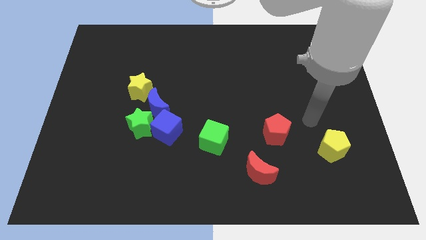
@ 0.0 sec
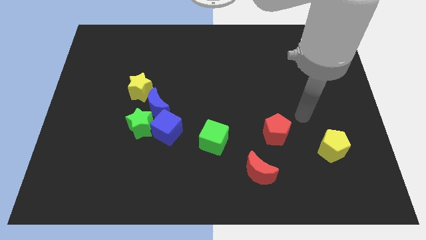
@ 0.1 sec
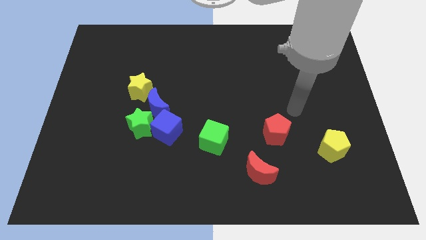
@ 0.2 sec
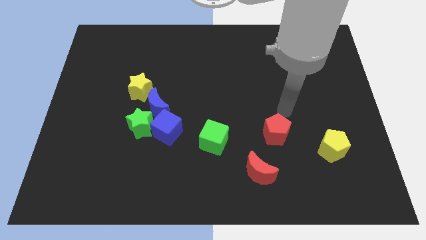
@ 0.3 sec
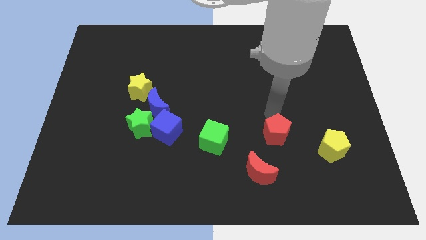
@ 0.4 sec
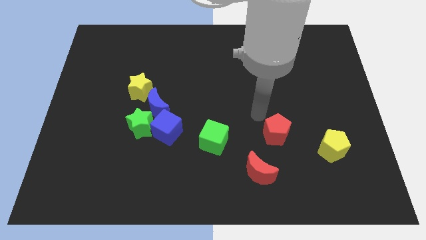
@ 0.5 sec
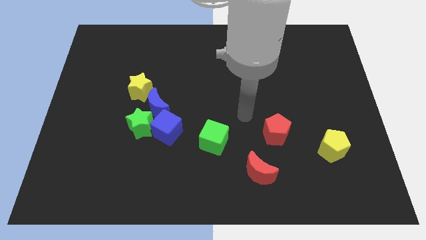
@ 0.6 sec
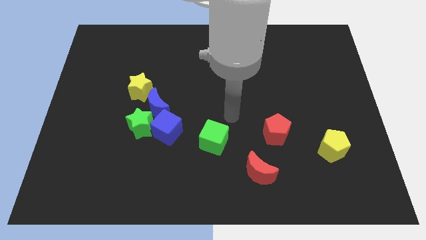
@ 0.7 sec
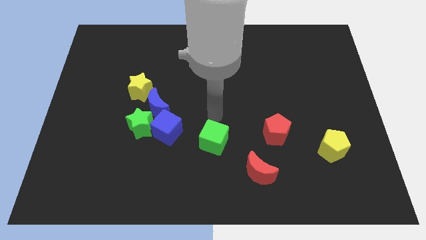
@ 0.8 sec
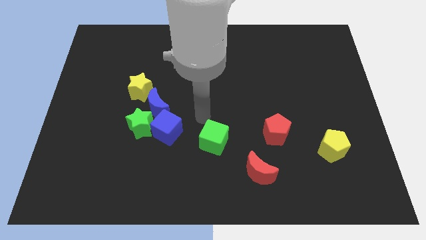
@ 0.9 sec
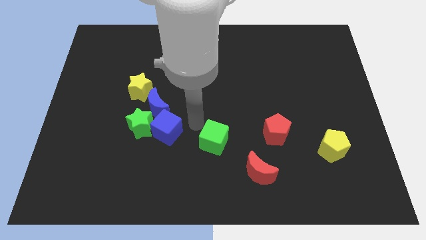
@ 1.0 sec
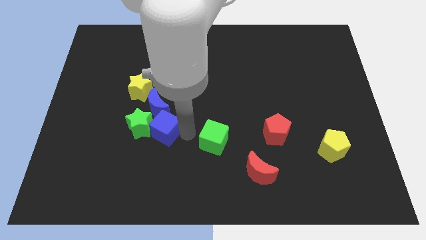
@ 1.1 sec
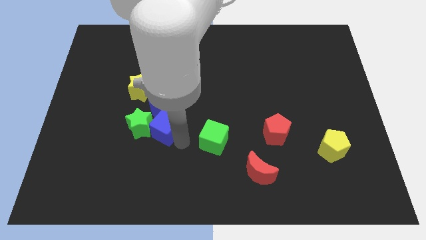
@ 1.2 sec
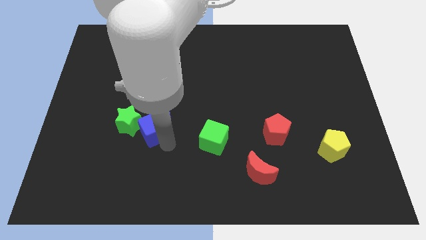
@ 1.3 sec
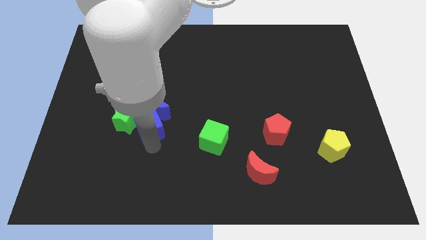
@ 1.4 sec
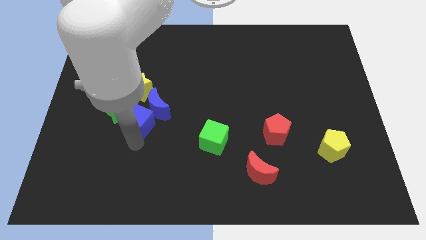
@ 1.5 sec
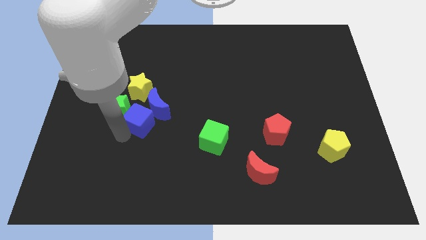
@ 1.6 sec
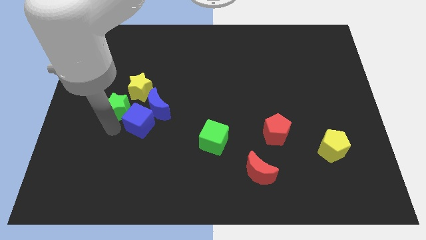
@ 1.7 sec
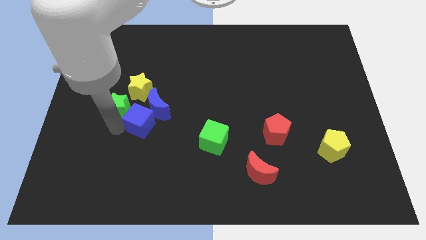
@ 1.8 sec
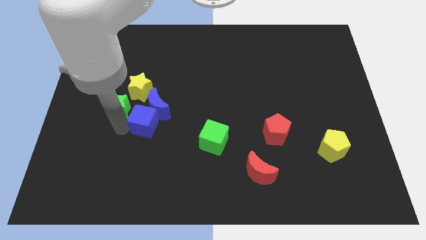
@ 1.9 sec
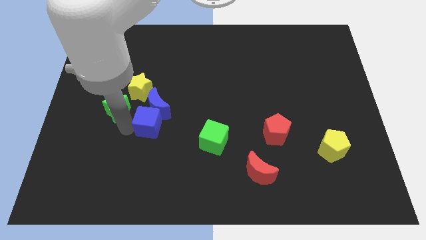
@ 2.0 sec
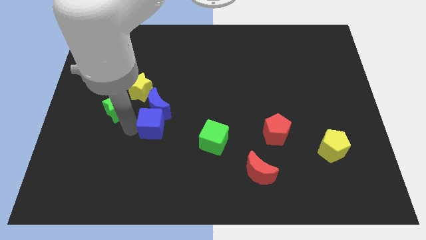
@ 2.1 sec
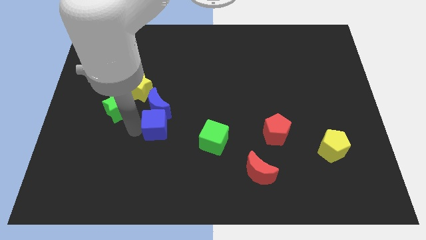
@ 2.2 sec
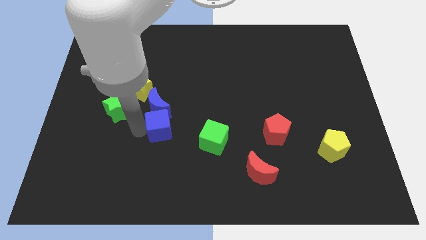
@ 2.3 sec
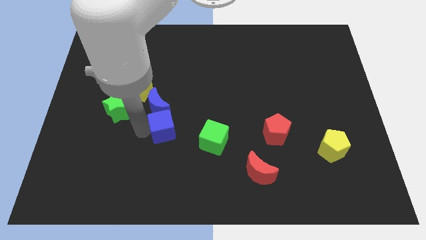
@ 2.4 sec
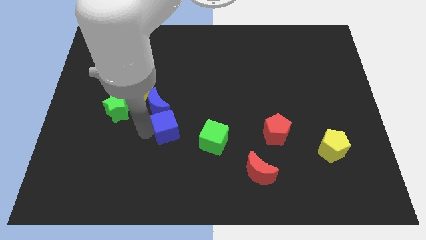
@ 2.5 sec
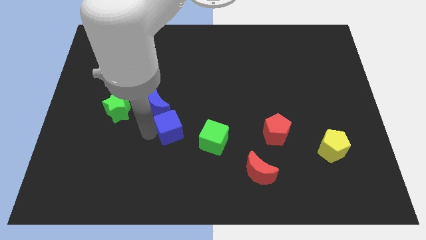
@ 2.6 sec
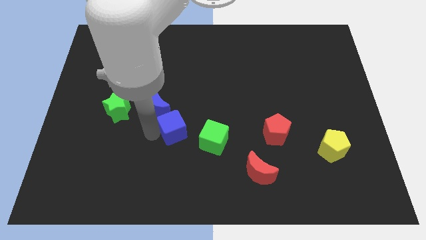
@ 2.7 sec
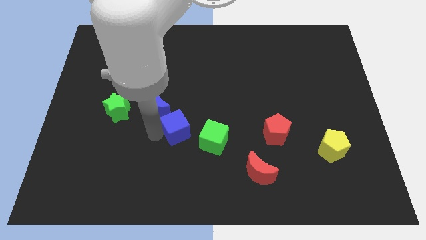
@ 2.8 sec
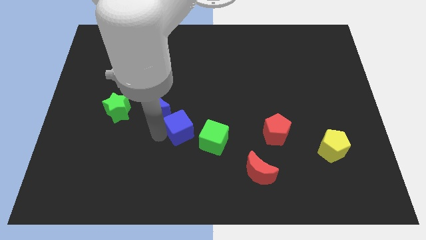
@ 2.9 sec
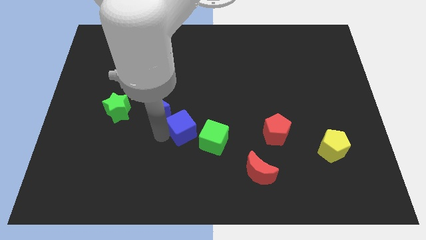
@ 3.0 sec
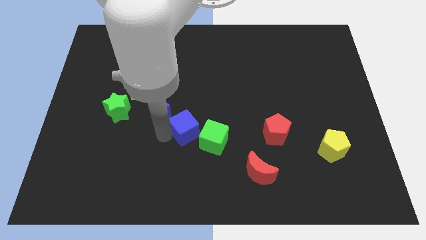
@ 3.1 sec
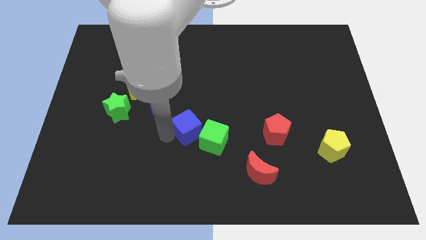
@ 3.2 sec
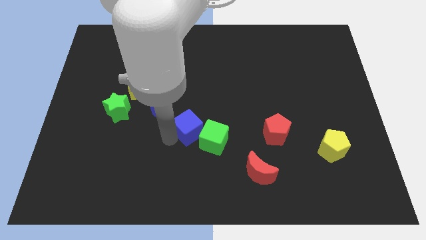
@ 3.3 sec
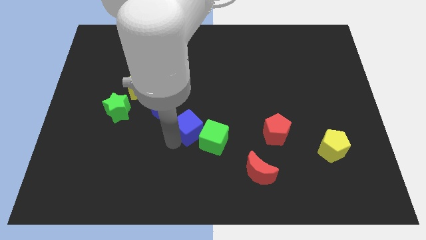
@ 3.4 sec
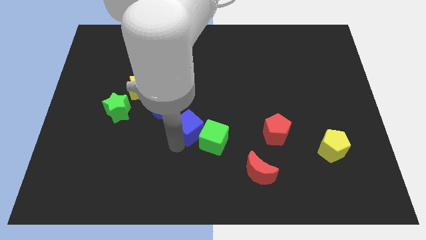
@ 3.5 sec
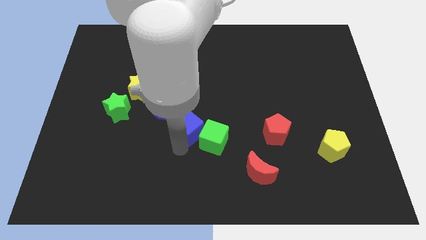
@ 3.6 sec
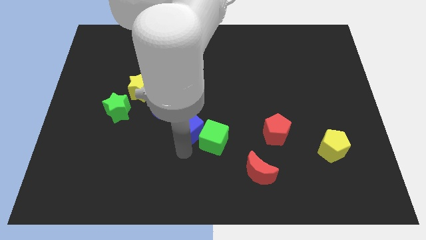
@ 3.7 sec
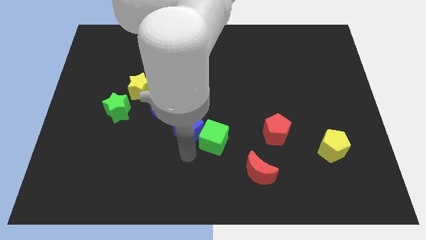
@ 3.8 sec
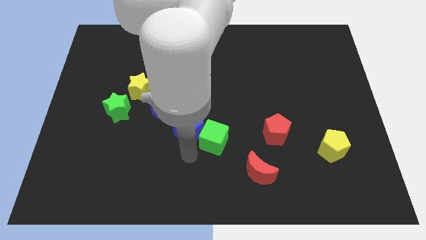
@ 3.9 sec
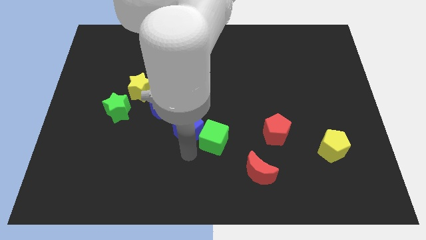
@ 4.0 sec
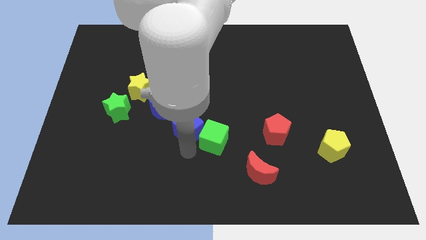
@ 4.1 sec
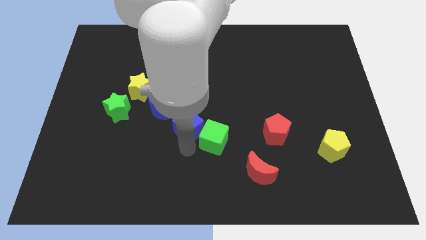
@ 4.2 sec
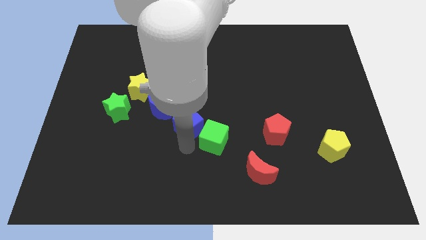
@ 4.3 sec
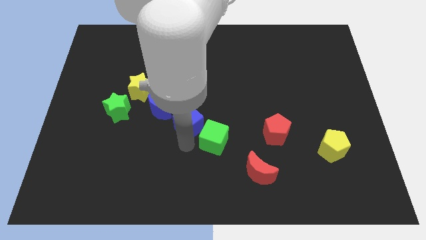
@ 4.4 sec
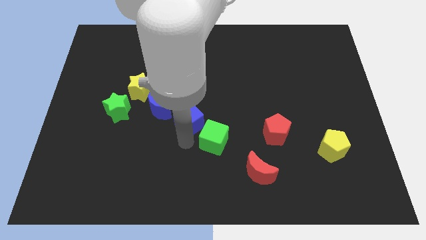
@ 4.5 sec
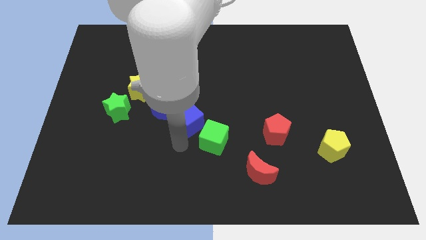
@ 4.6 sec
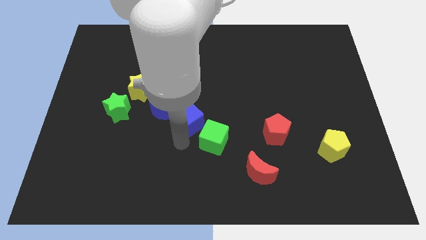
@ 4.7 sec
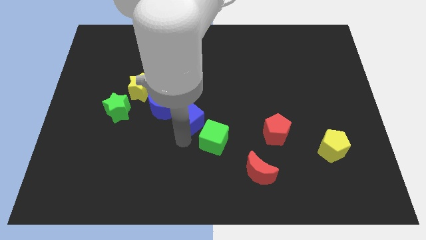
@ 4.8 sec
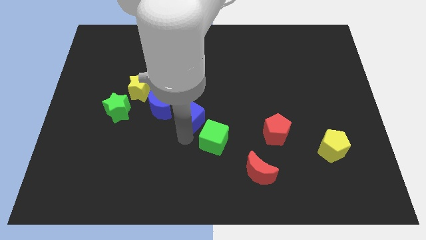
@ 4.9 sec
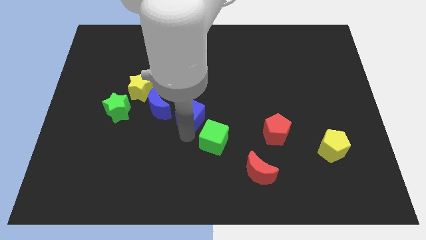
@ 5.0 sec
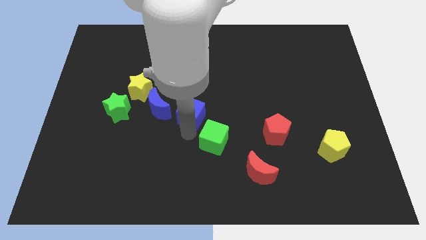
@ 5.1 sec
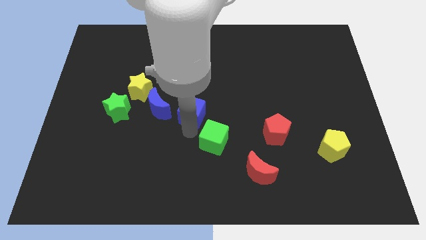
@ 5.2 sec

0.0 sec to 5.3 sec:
move the blue cube a little bit upwards and then to the right

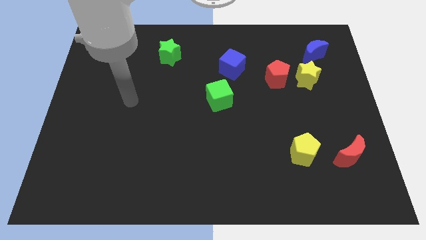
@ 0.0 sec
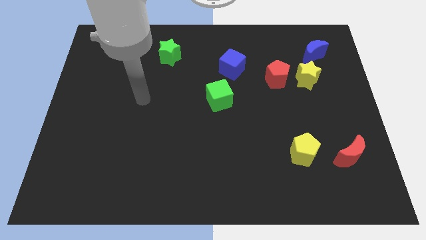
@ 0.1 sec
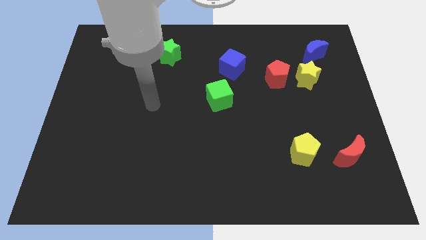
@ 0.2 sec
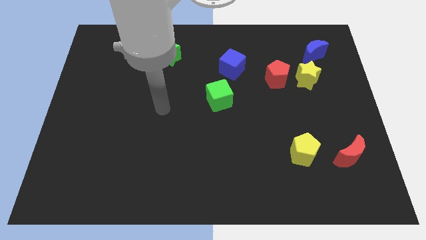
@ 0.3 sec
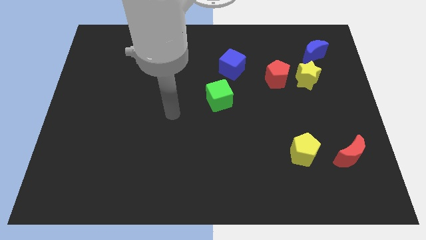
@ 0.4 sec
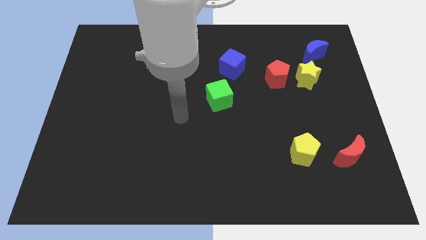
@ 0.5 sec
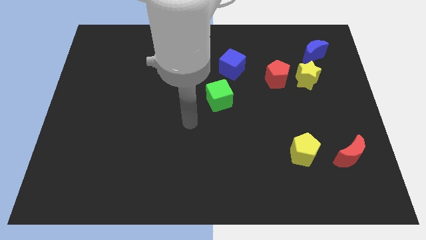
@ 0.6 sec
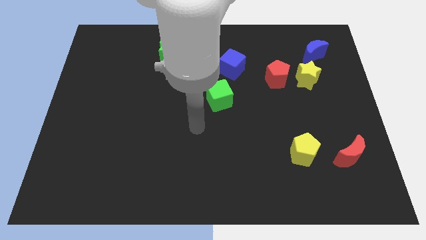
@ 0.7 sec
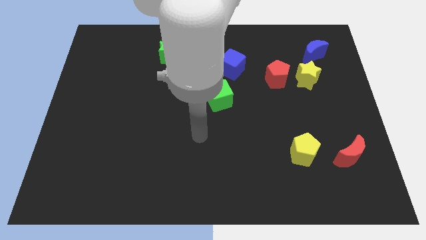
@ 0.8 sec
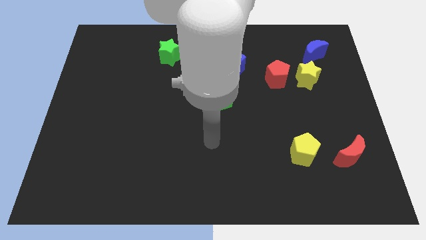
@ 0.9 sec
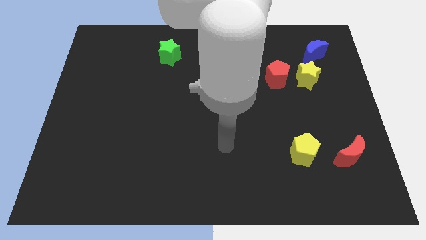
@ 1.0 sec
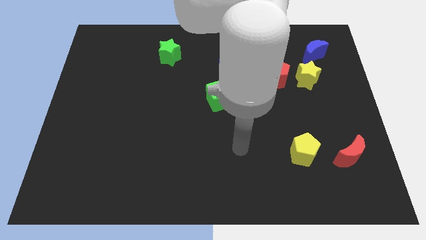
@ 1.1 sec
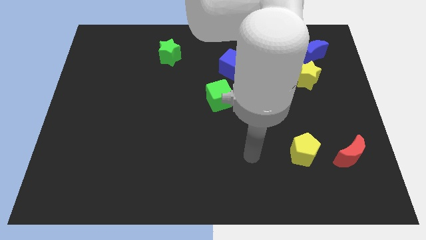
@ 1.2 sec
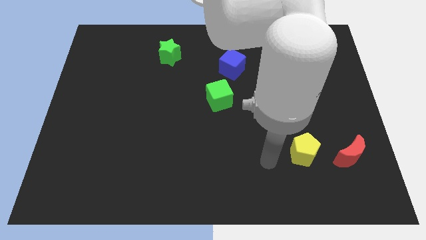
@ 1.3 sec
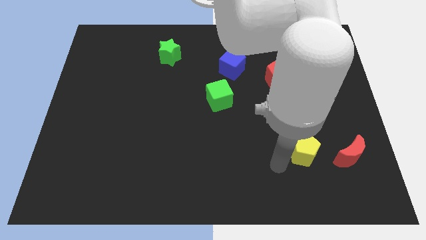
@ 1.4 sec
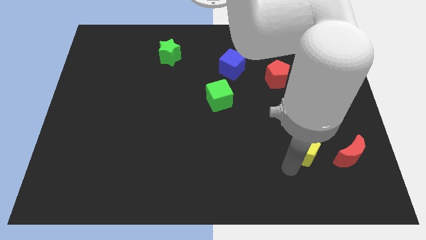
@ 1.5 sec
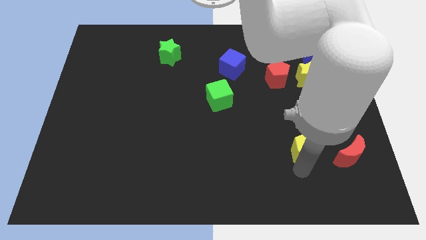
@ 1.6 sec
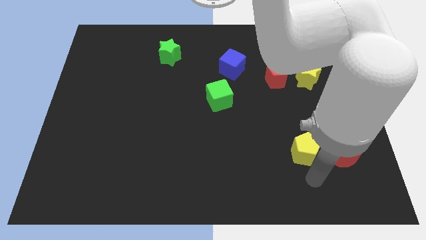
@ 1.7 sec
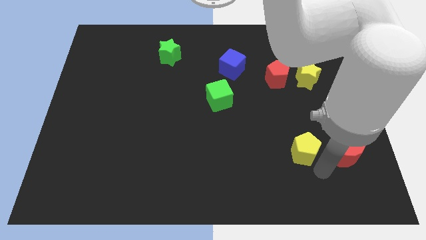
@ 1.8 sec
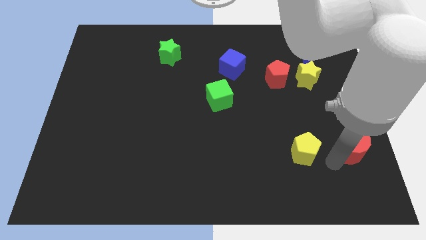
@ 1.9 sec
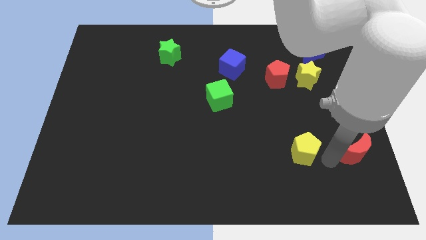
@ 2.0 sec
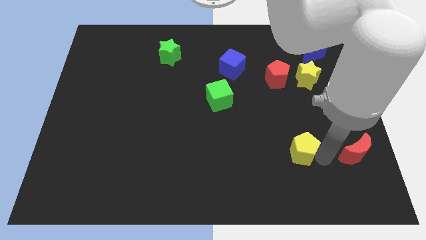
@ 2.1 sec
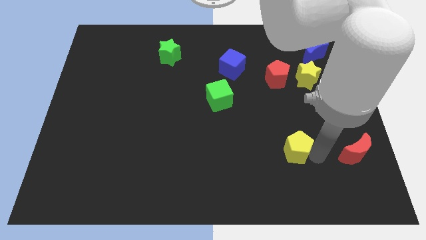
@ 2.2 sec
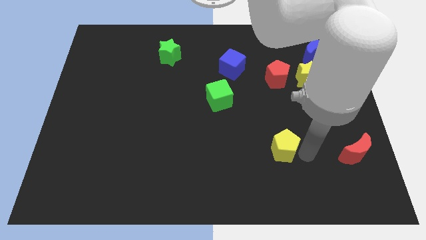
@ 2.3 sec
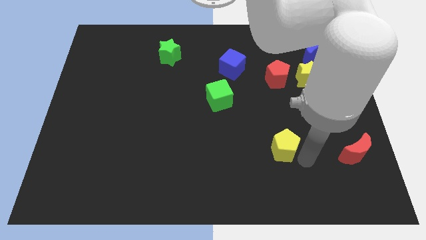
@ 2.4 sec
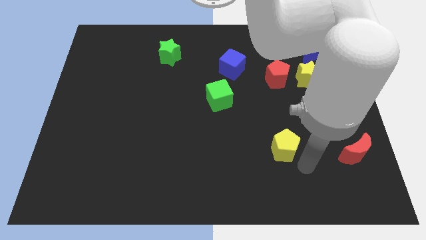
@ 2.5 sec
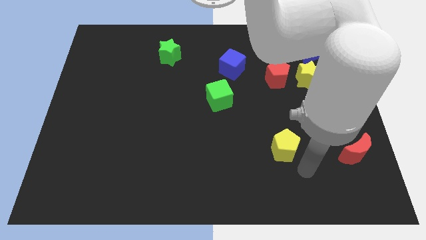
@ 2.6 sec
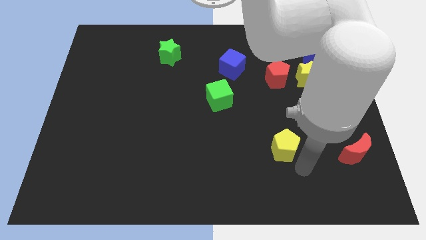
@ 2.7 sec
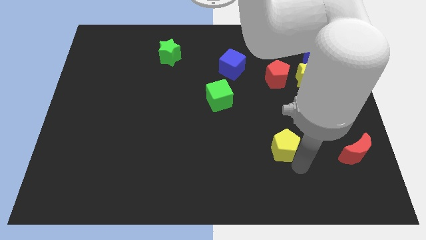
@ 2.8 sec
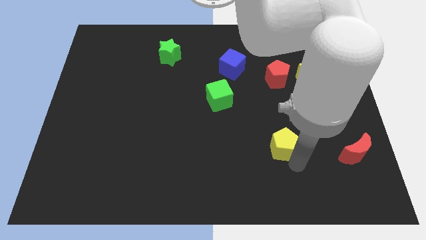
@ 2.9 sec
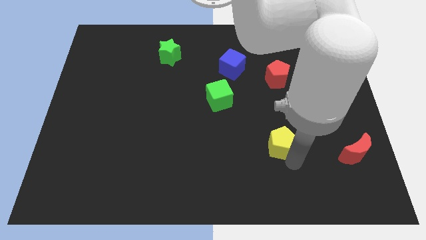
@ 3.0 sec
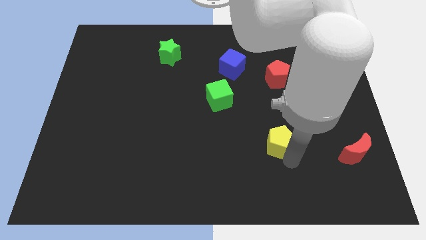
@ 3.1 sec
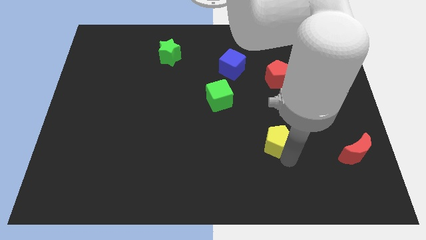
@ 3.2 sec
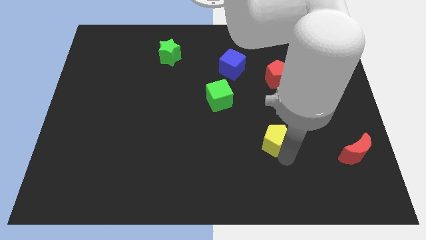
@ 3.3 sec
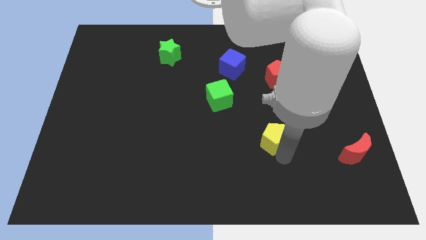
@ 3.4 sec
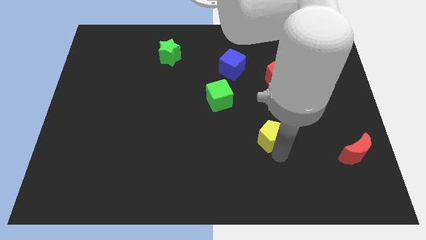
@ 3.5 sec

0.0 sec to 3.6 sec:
move the yellow pentagon up and left diagonally somewhat
